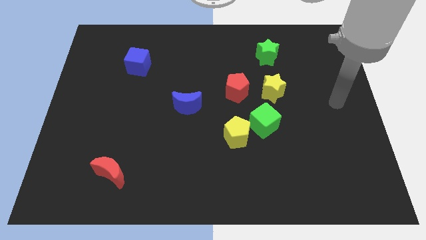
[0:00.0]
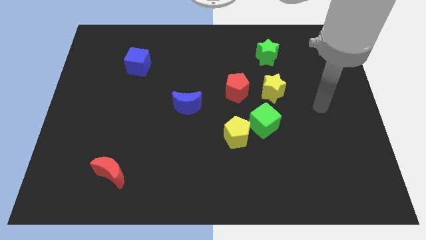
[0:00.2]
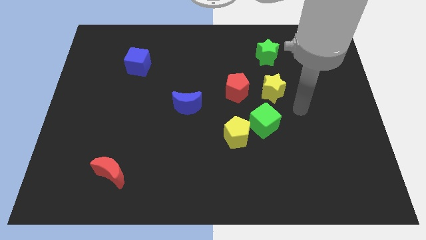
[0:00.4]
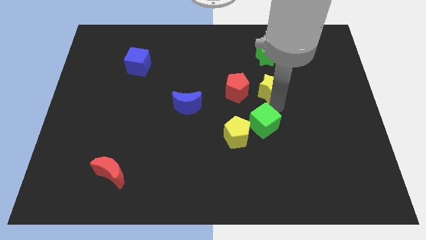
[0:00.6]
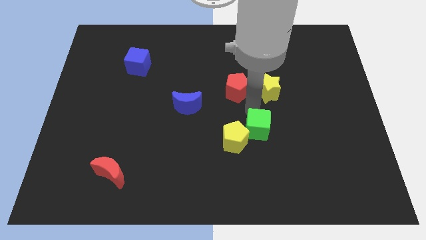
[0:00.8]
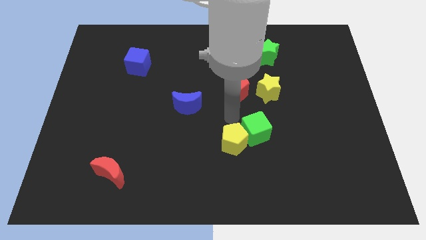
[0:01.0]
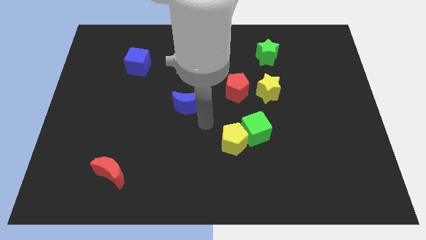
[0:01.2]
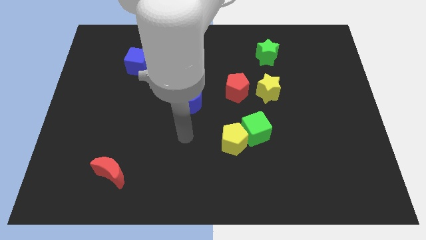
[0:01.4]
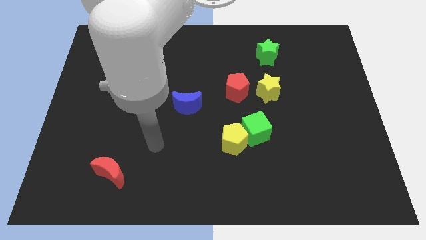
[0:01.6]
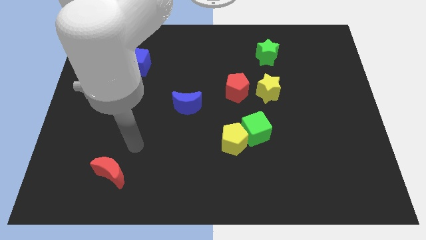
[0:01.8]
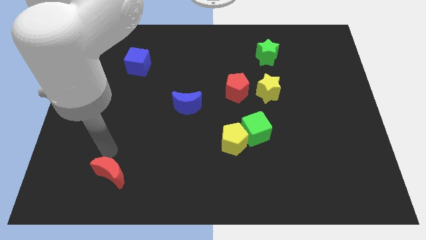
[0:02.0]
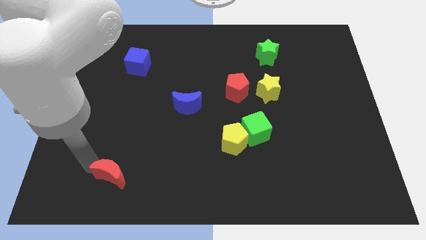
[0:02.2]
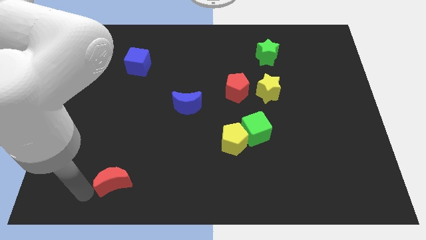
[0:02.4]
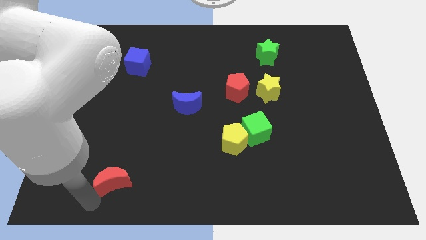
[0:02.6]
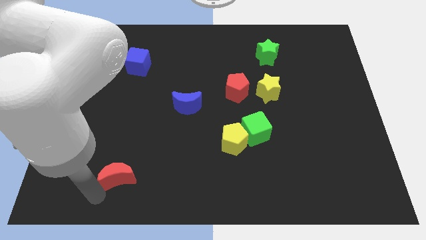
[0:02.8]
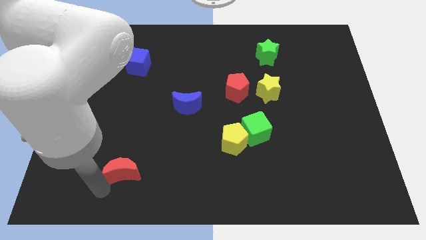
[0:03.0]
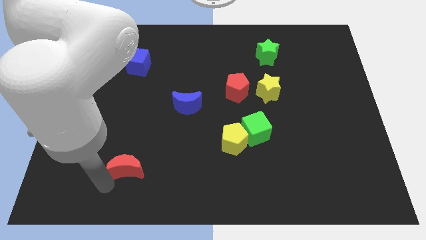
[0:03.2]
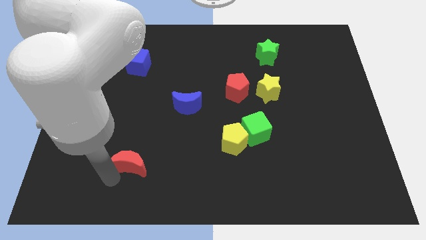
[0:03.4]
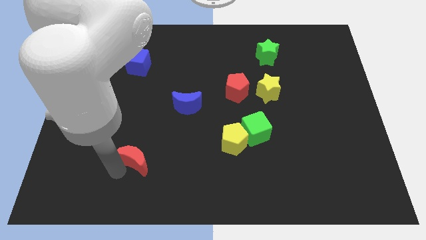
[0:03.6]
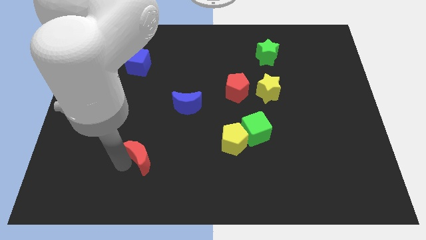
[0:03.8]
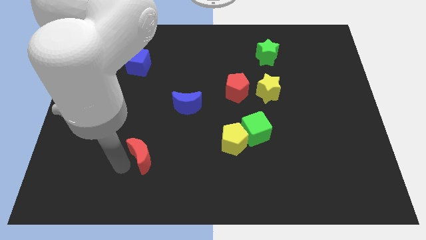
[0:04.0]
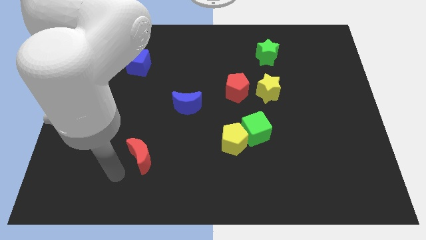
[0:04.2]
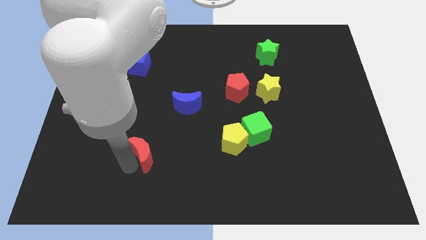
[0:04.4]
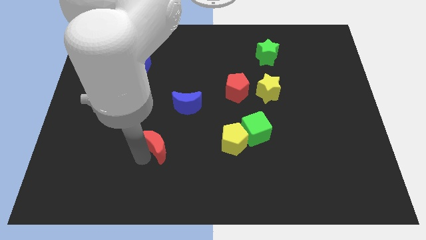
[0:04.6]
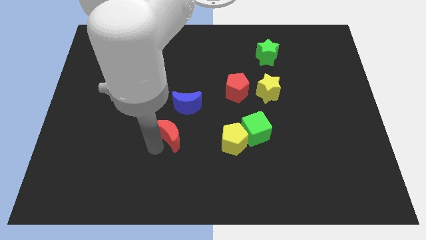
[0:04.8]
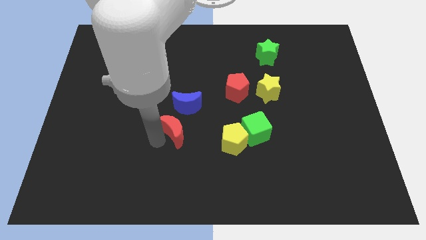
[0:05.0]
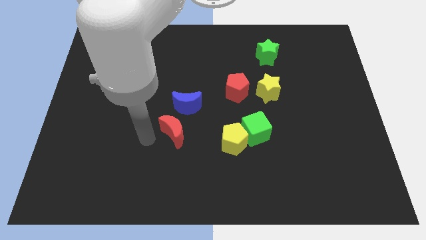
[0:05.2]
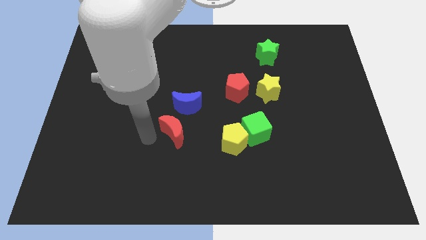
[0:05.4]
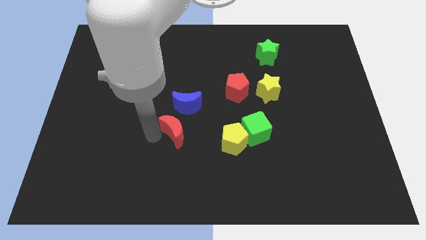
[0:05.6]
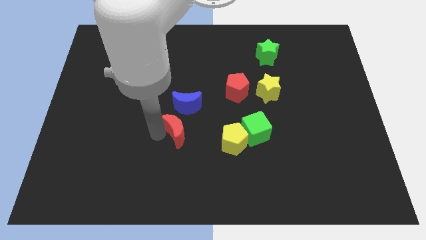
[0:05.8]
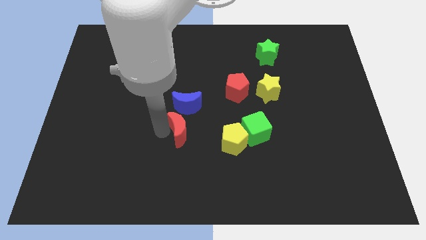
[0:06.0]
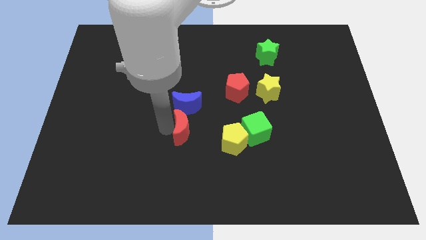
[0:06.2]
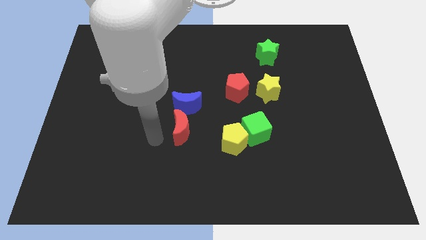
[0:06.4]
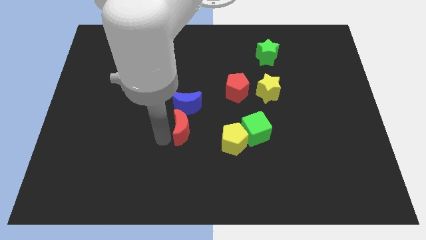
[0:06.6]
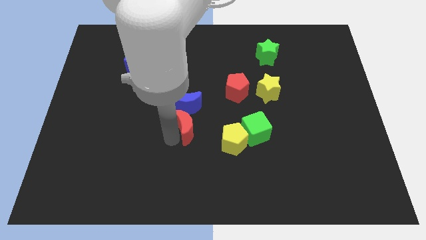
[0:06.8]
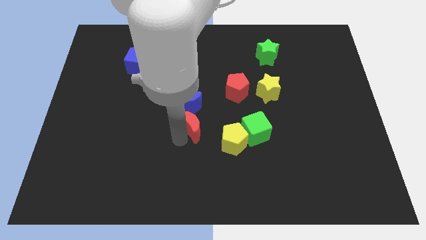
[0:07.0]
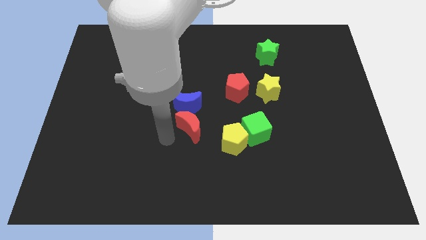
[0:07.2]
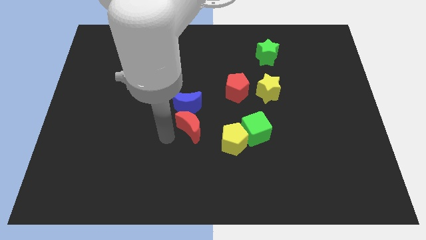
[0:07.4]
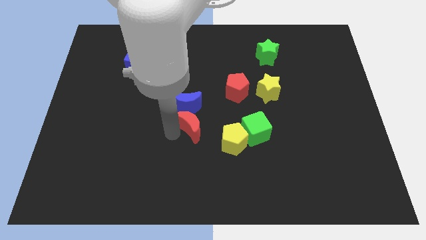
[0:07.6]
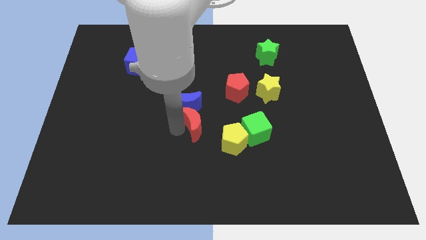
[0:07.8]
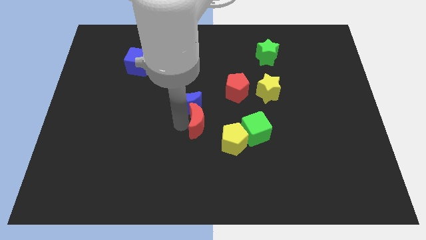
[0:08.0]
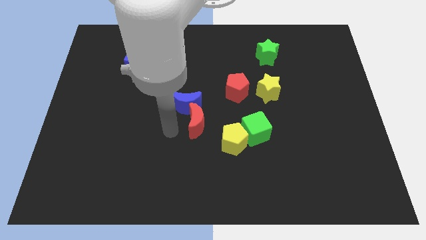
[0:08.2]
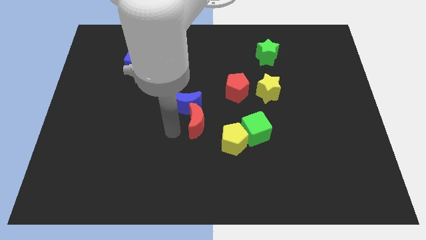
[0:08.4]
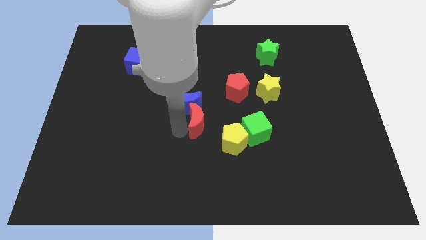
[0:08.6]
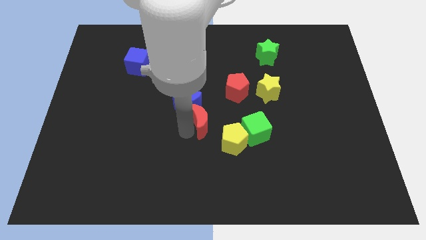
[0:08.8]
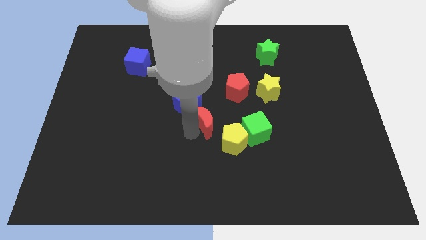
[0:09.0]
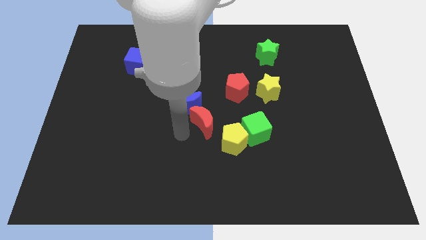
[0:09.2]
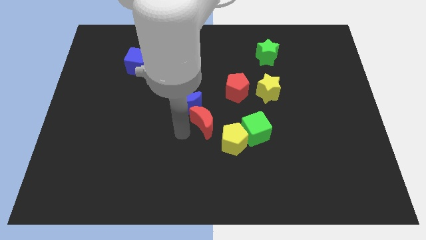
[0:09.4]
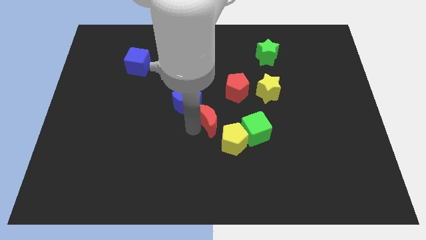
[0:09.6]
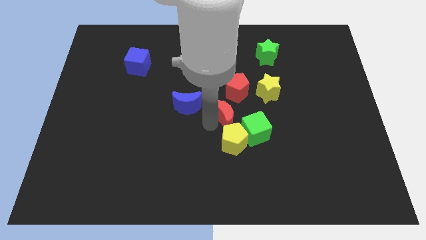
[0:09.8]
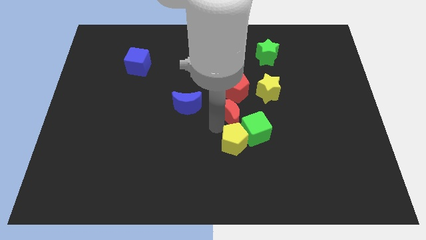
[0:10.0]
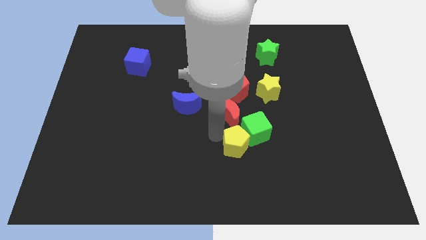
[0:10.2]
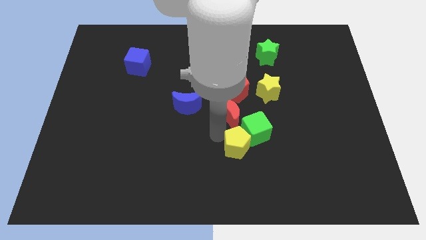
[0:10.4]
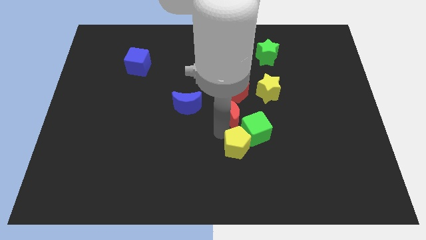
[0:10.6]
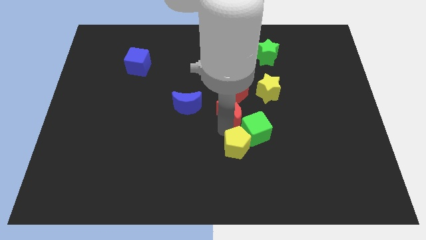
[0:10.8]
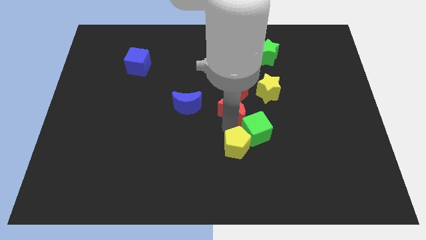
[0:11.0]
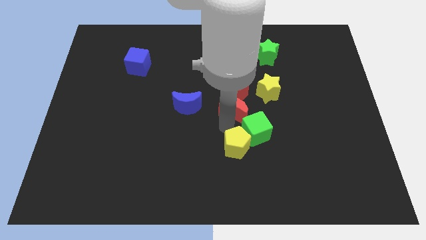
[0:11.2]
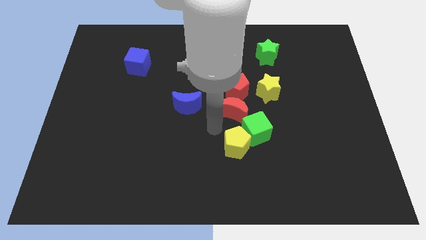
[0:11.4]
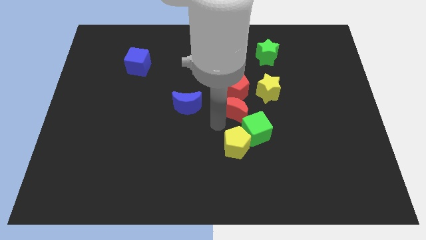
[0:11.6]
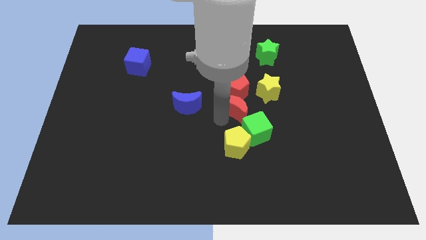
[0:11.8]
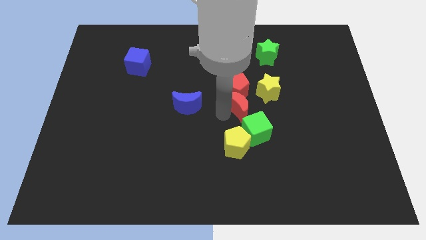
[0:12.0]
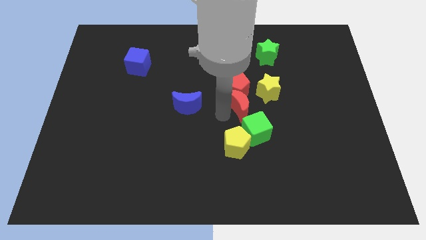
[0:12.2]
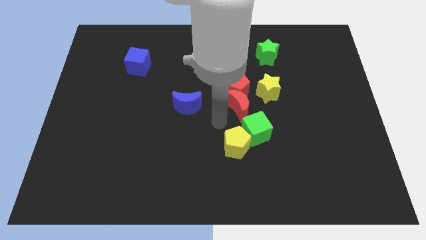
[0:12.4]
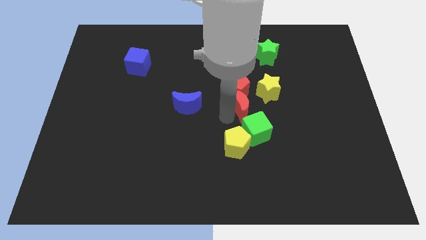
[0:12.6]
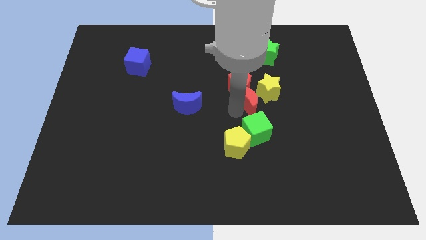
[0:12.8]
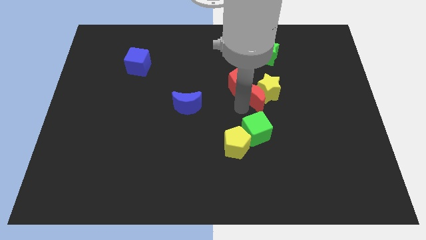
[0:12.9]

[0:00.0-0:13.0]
push the red moon towards the yellow star

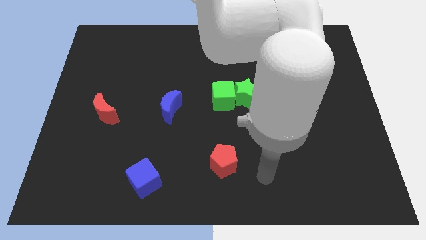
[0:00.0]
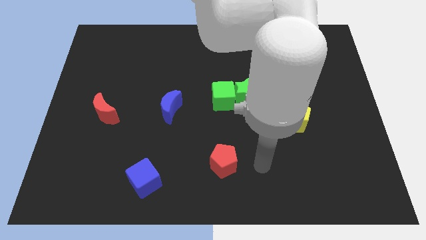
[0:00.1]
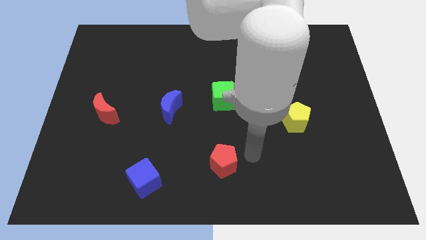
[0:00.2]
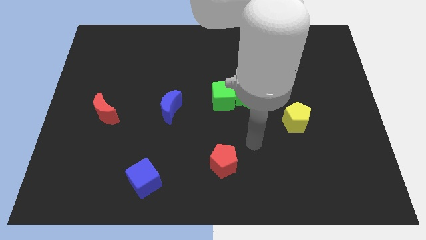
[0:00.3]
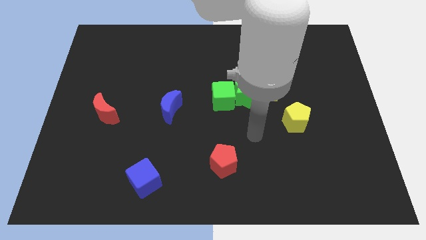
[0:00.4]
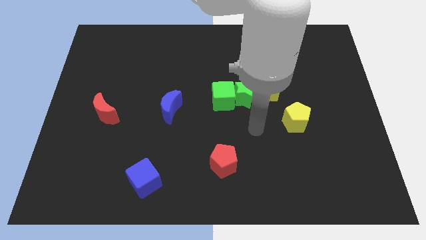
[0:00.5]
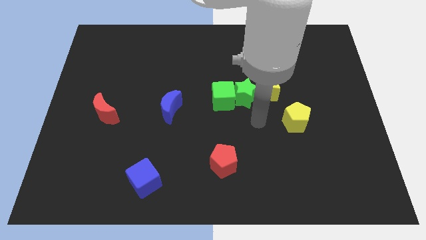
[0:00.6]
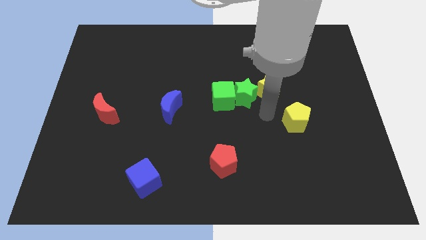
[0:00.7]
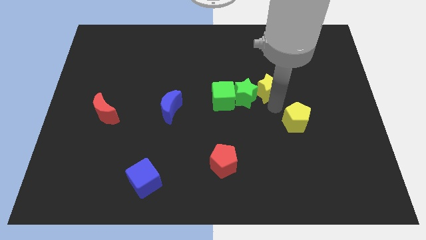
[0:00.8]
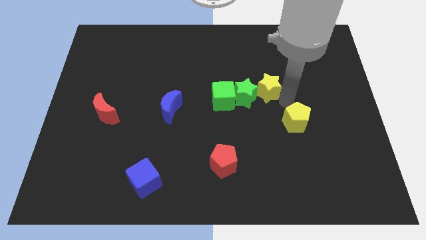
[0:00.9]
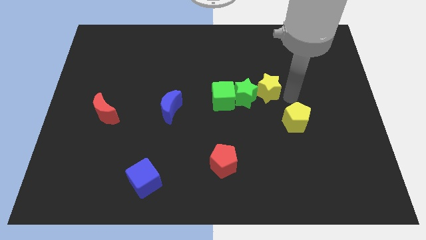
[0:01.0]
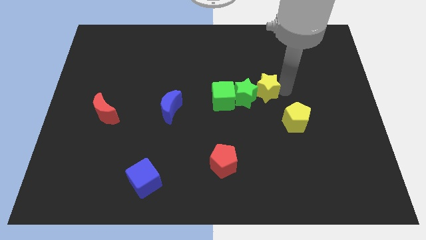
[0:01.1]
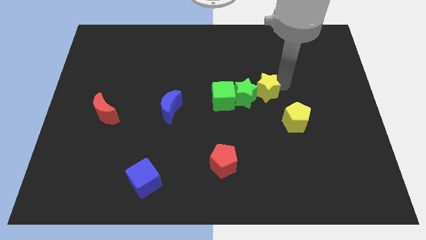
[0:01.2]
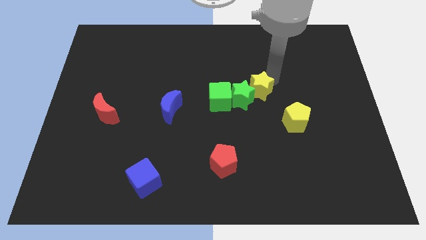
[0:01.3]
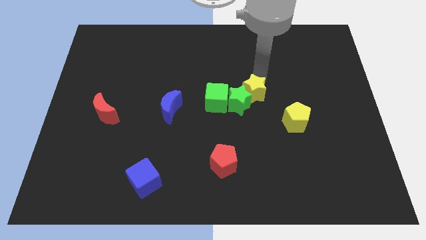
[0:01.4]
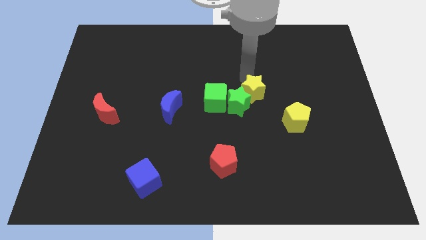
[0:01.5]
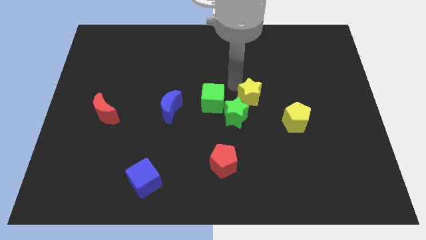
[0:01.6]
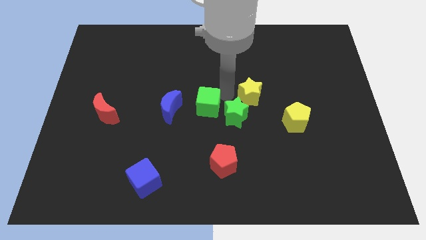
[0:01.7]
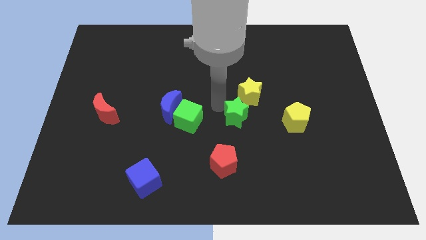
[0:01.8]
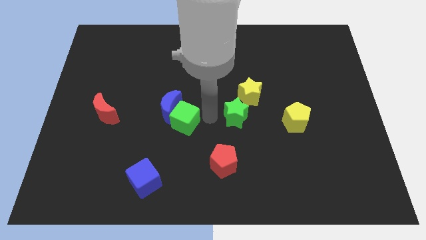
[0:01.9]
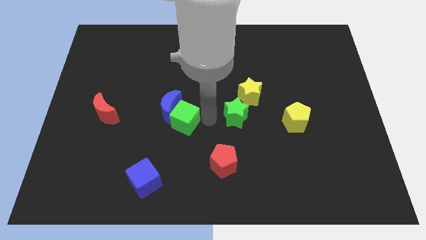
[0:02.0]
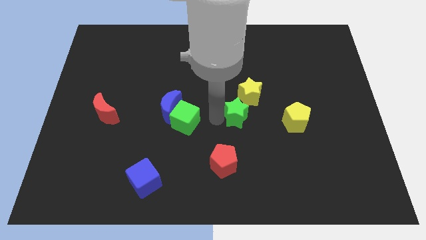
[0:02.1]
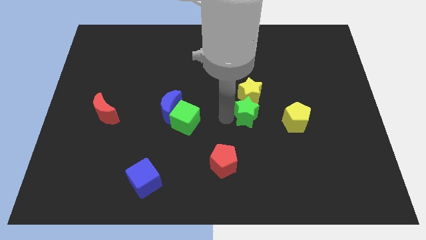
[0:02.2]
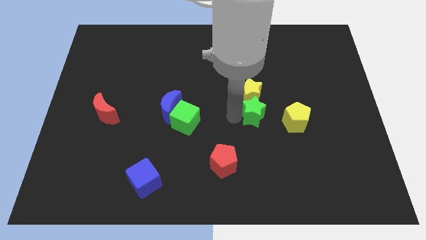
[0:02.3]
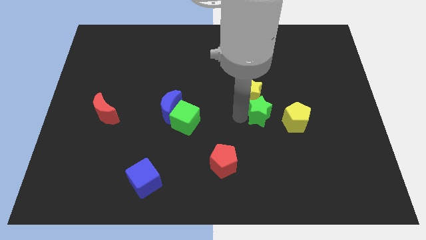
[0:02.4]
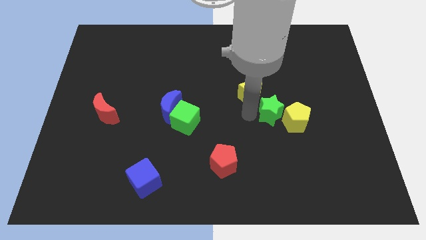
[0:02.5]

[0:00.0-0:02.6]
push the green star to the yellow pentagon
